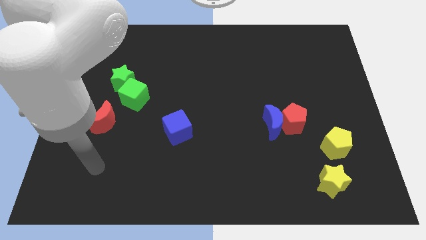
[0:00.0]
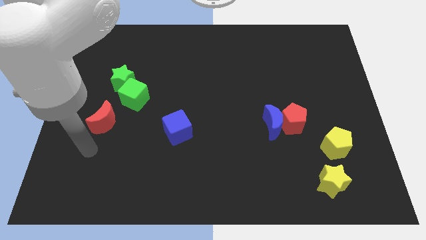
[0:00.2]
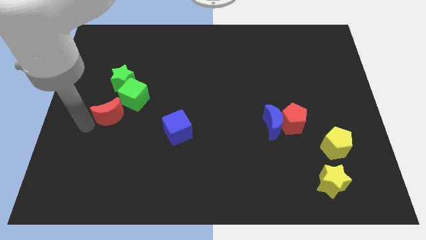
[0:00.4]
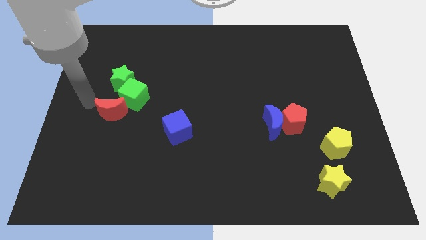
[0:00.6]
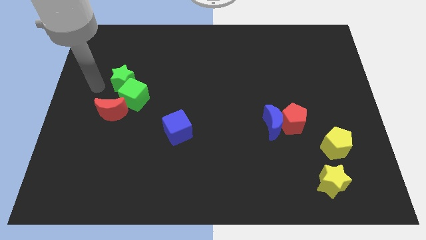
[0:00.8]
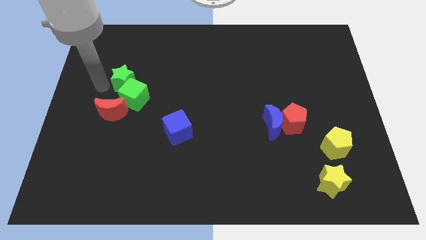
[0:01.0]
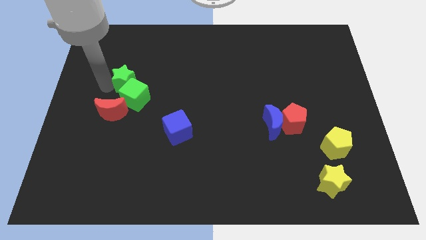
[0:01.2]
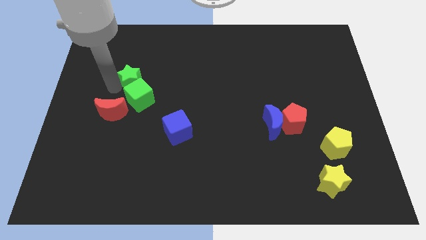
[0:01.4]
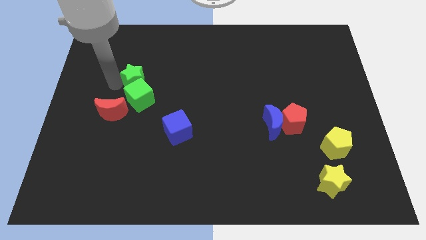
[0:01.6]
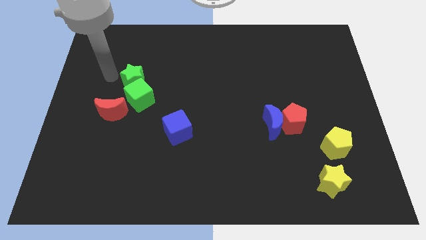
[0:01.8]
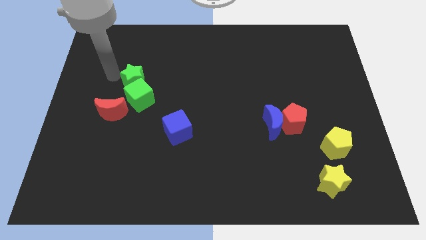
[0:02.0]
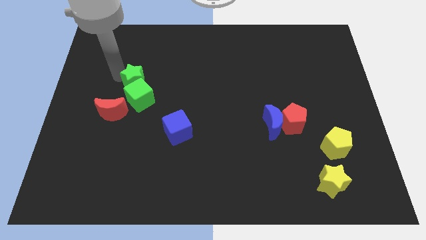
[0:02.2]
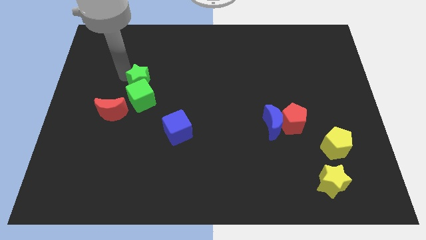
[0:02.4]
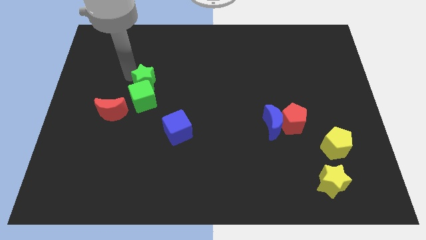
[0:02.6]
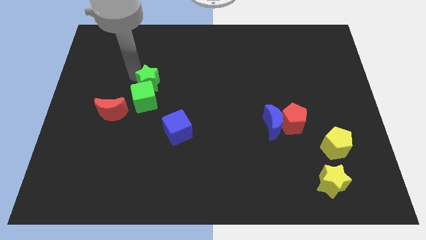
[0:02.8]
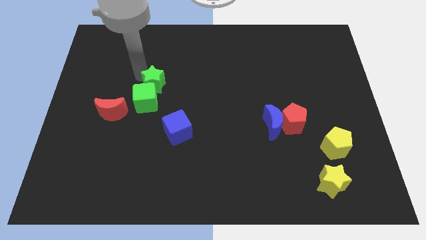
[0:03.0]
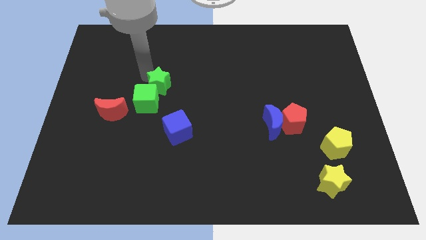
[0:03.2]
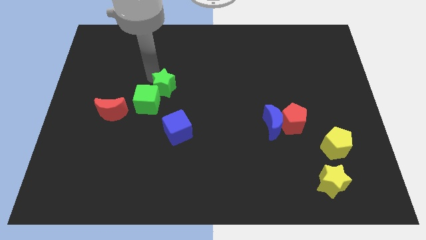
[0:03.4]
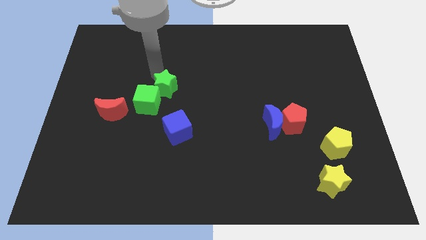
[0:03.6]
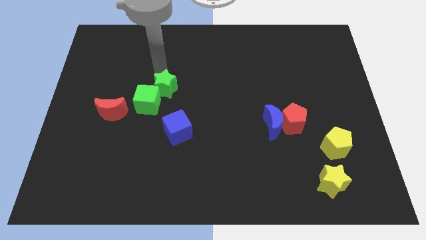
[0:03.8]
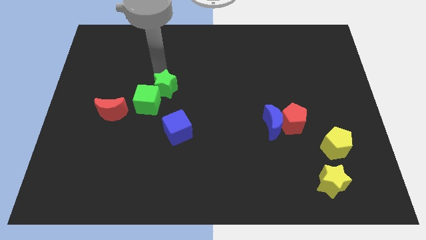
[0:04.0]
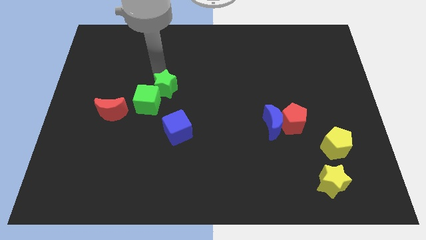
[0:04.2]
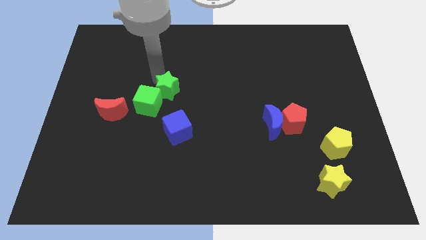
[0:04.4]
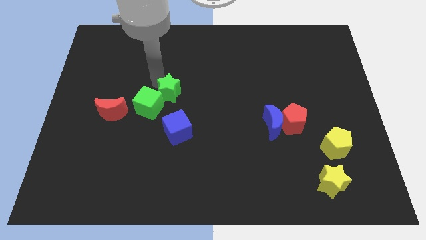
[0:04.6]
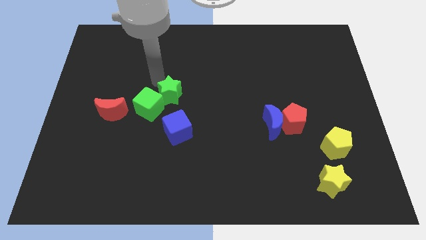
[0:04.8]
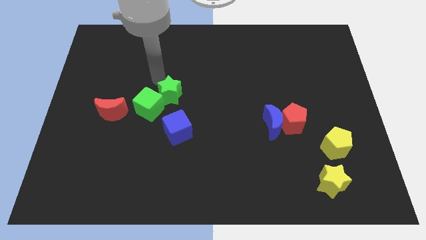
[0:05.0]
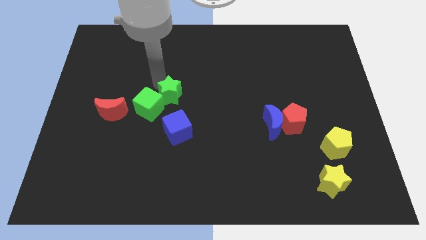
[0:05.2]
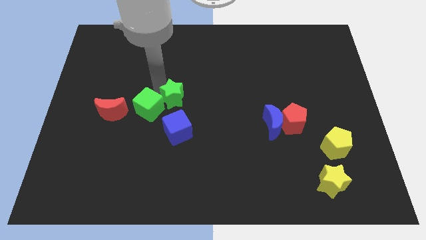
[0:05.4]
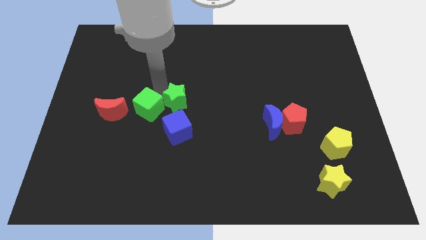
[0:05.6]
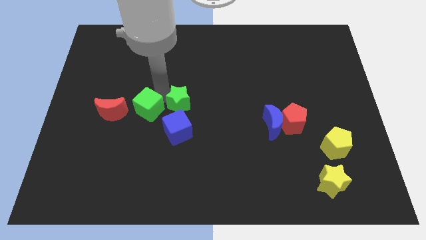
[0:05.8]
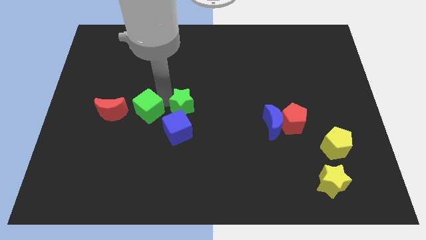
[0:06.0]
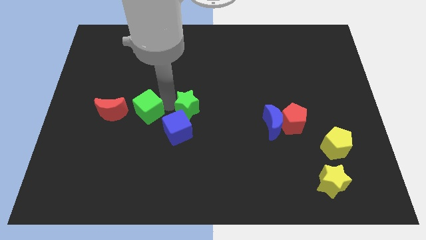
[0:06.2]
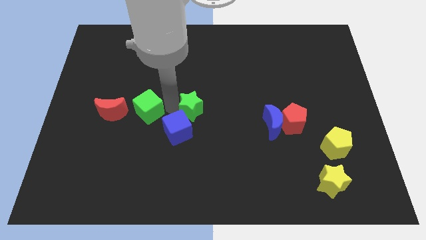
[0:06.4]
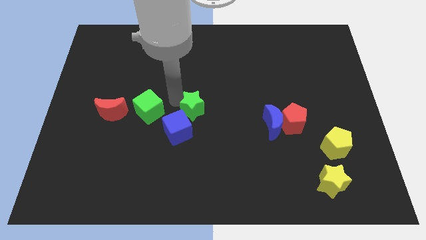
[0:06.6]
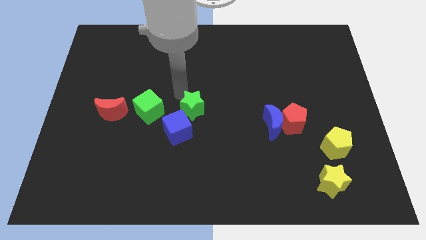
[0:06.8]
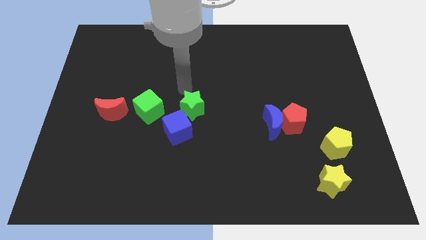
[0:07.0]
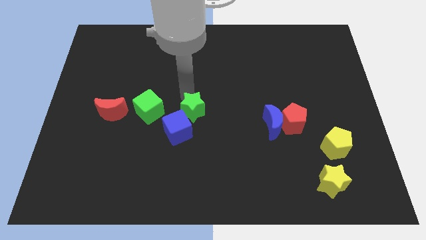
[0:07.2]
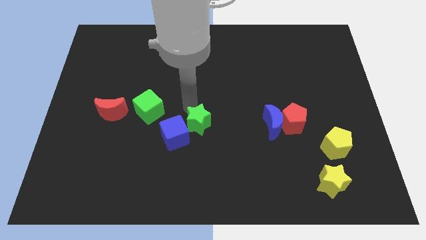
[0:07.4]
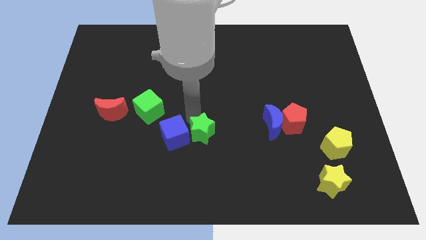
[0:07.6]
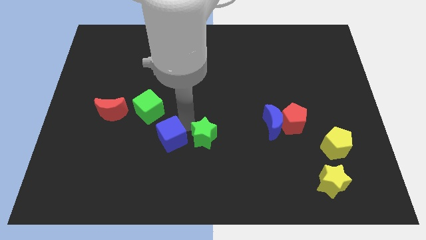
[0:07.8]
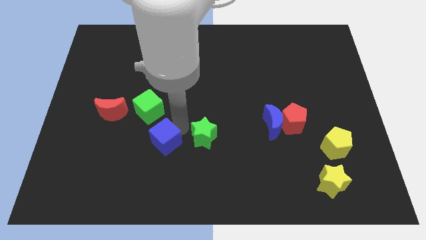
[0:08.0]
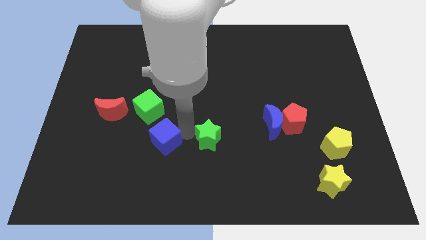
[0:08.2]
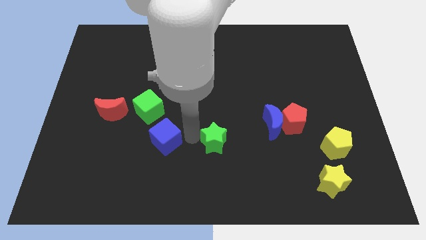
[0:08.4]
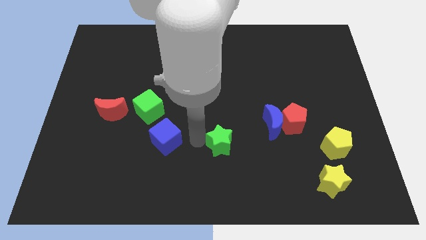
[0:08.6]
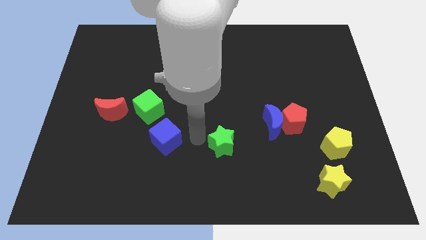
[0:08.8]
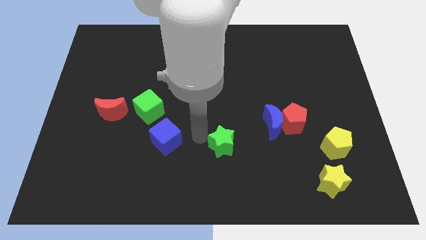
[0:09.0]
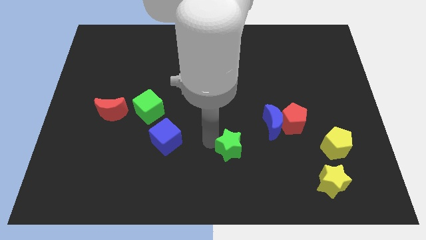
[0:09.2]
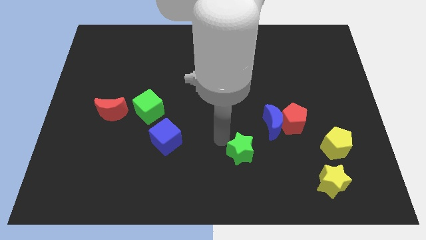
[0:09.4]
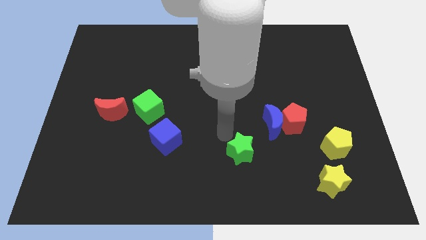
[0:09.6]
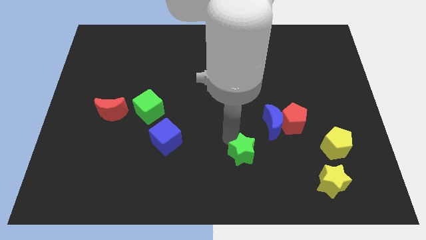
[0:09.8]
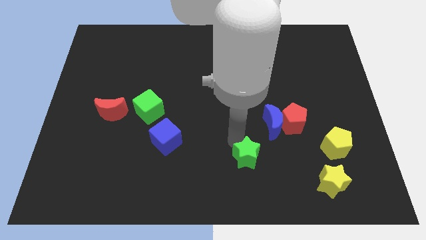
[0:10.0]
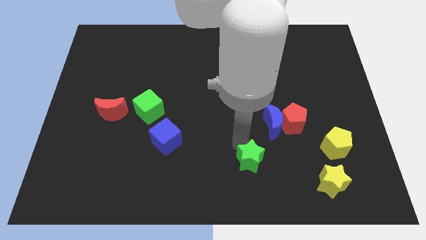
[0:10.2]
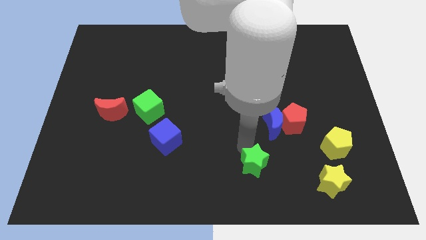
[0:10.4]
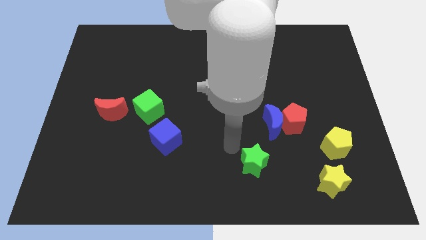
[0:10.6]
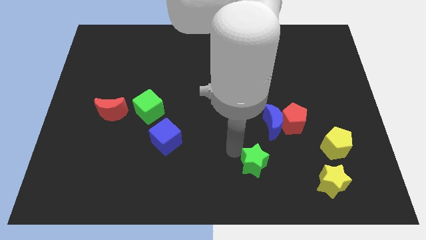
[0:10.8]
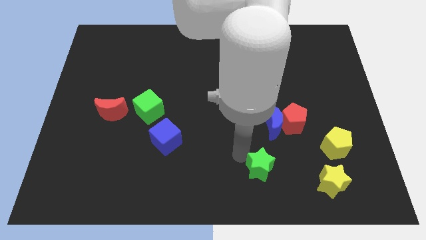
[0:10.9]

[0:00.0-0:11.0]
push the green star to the left side of the yellow star
